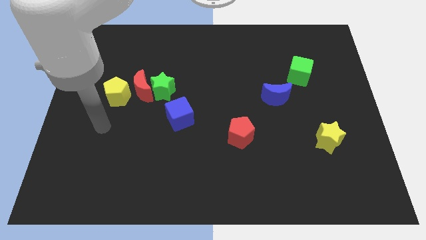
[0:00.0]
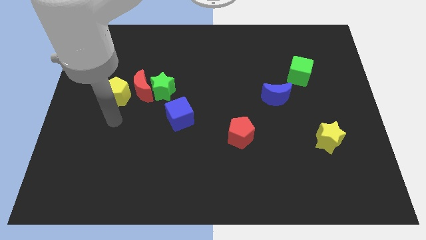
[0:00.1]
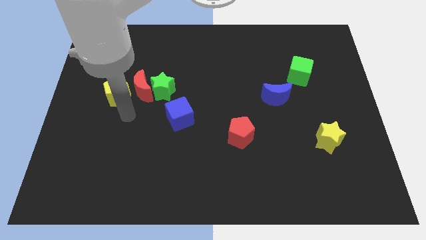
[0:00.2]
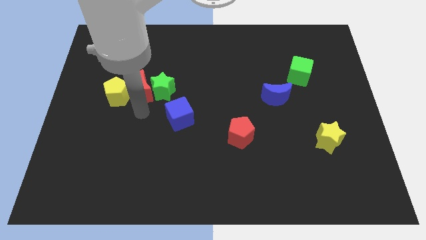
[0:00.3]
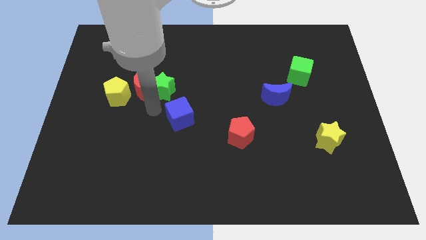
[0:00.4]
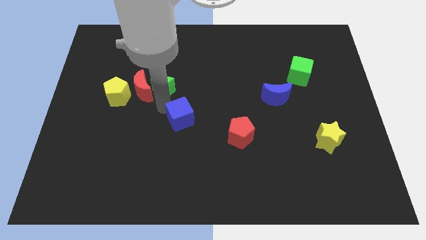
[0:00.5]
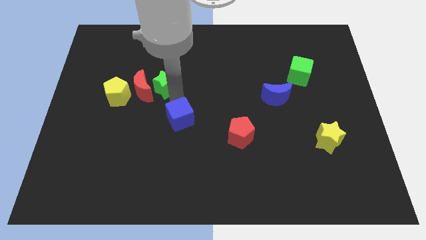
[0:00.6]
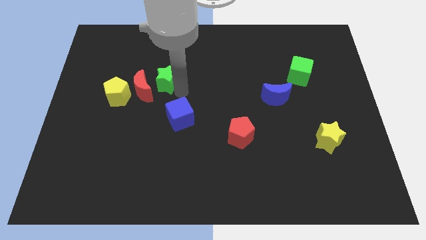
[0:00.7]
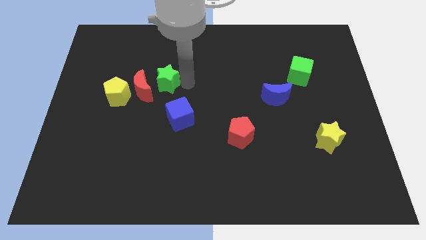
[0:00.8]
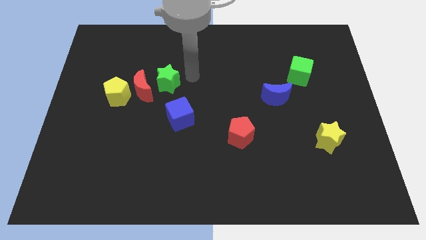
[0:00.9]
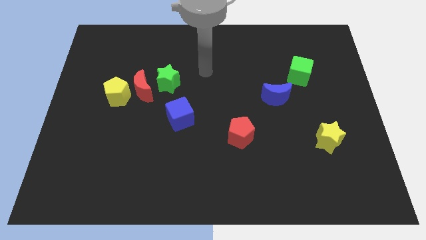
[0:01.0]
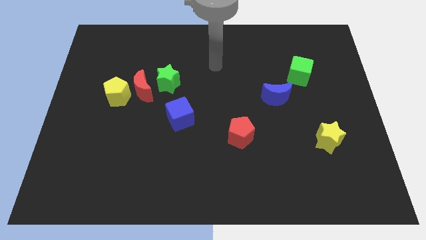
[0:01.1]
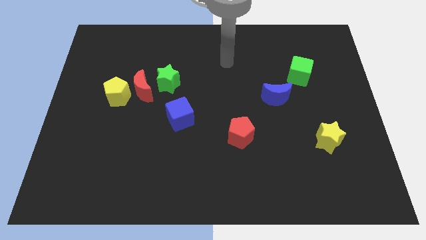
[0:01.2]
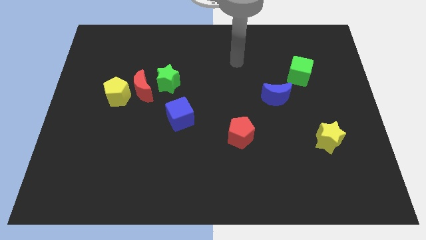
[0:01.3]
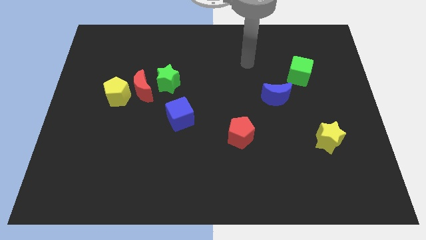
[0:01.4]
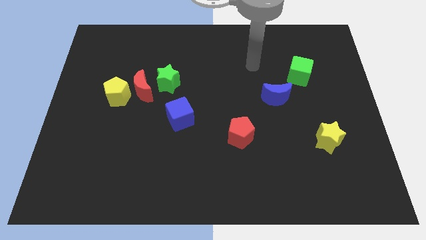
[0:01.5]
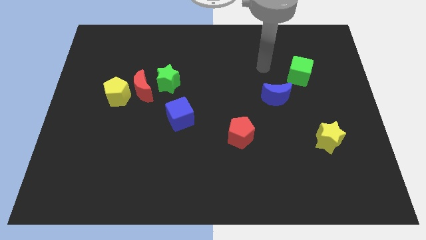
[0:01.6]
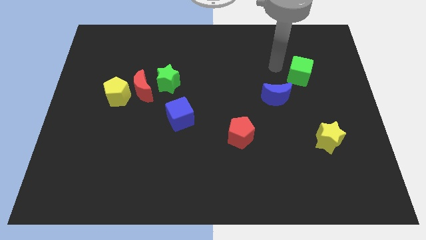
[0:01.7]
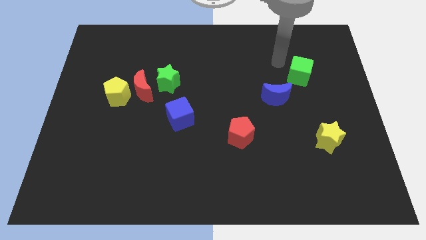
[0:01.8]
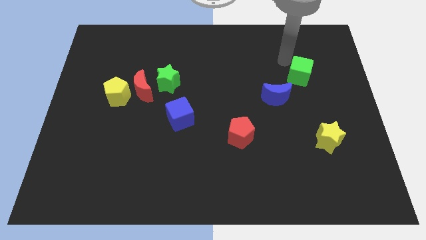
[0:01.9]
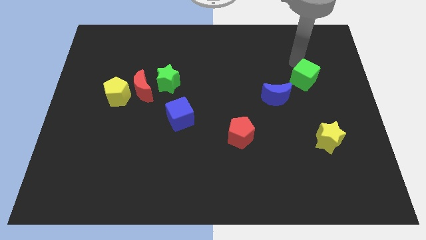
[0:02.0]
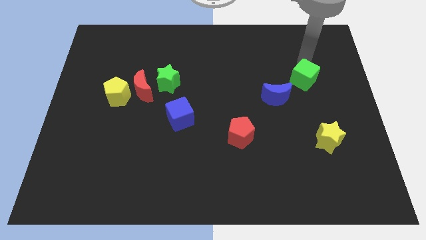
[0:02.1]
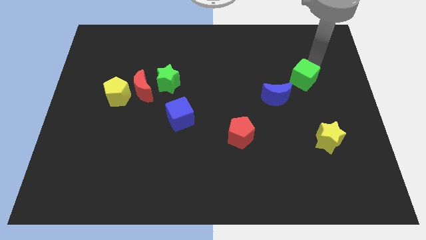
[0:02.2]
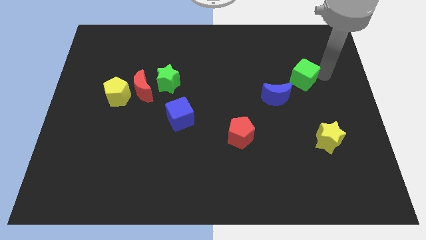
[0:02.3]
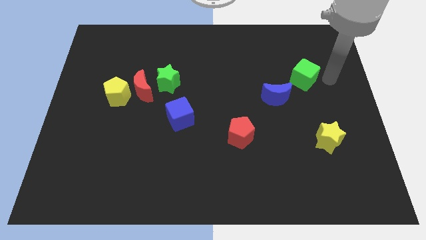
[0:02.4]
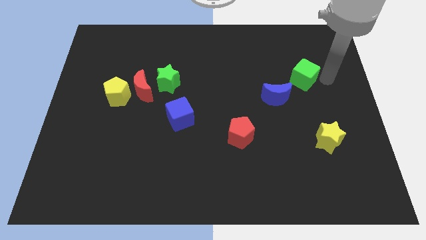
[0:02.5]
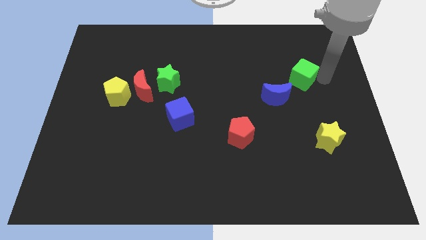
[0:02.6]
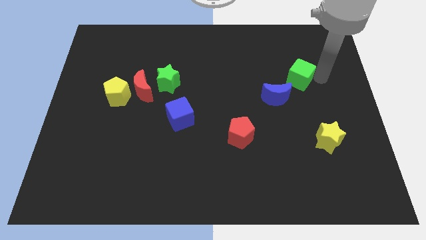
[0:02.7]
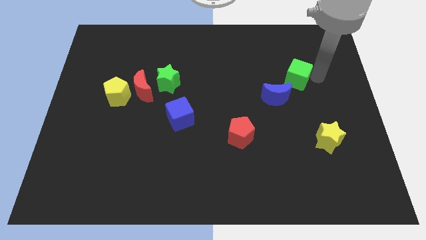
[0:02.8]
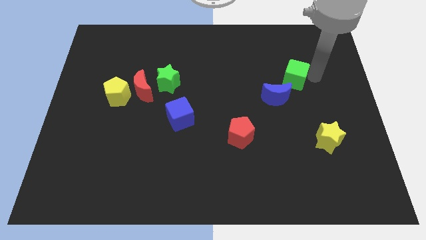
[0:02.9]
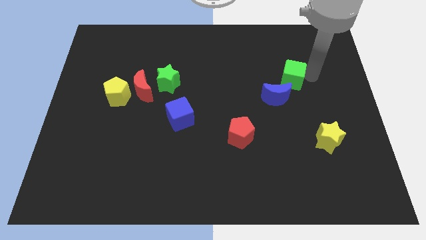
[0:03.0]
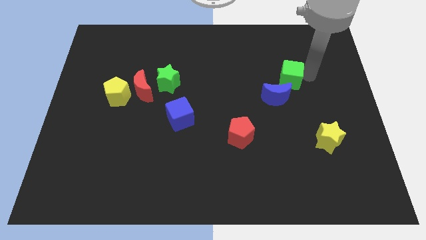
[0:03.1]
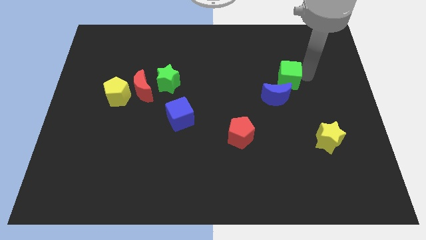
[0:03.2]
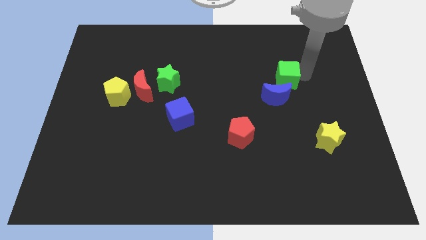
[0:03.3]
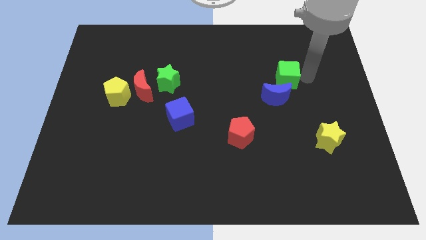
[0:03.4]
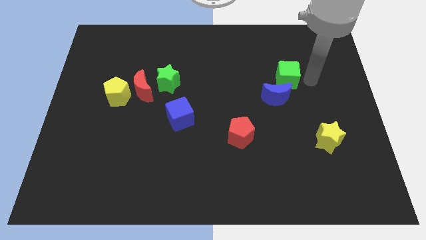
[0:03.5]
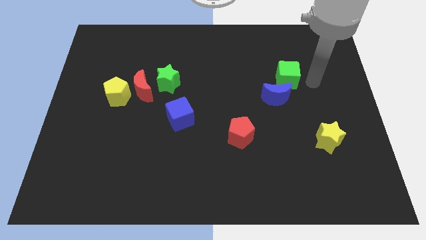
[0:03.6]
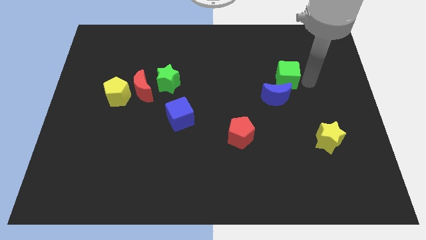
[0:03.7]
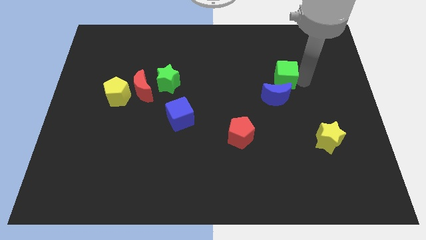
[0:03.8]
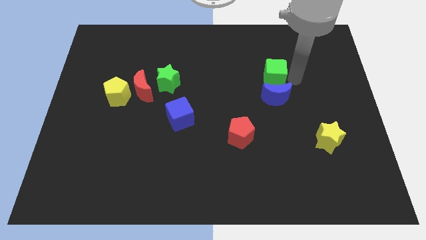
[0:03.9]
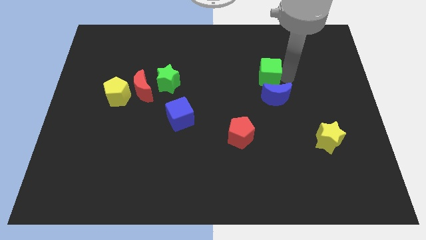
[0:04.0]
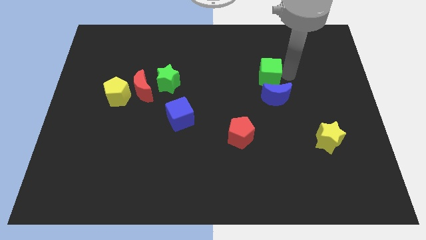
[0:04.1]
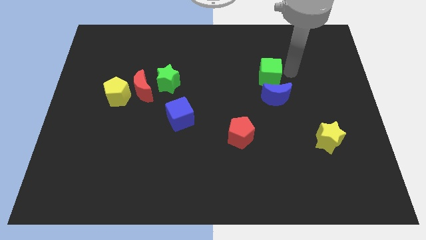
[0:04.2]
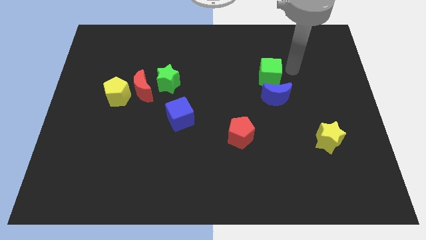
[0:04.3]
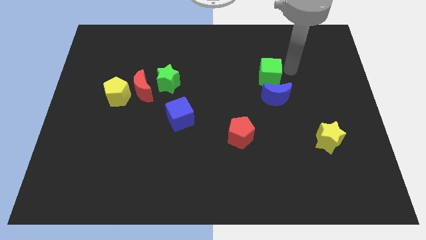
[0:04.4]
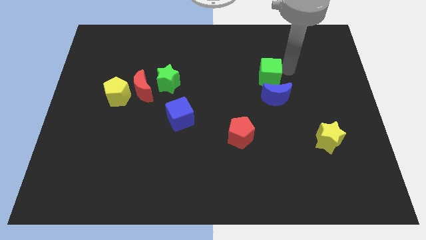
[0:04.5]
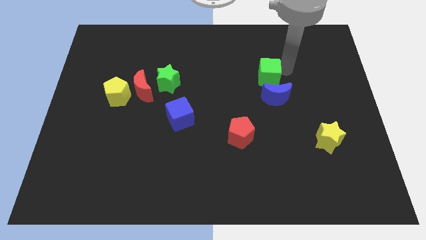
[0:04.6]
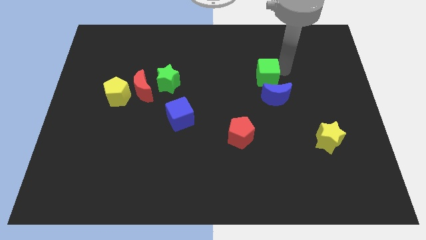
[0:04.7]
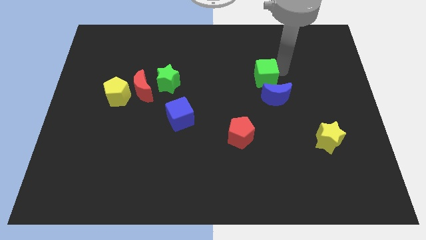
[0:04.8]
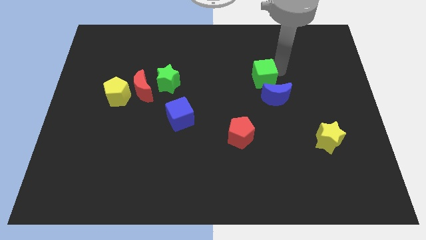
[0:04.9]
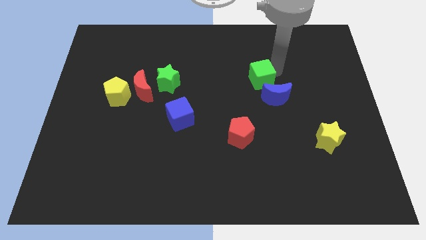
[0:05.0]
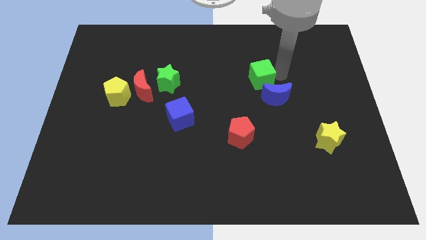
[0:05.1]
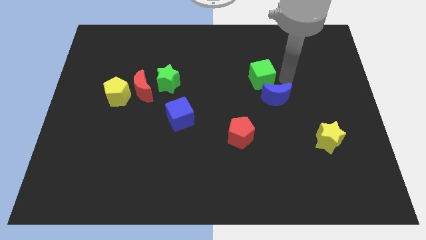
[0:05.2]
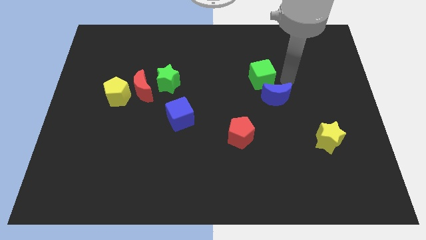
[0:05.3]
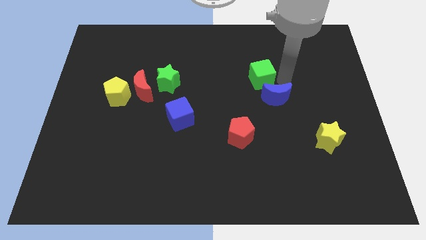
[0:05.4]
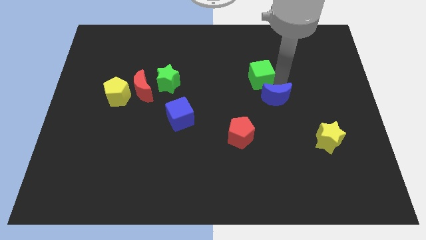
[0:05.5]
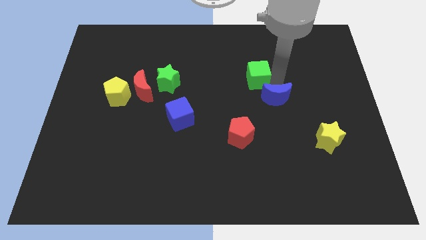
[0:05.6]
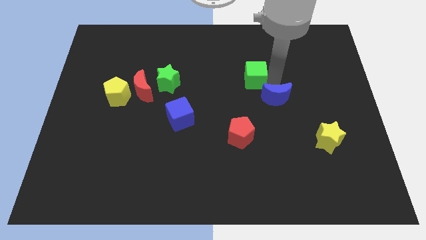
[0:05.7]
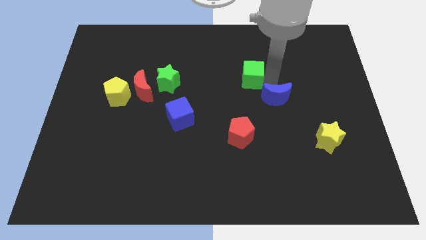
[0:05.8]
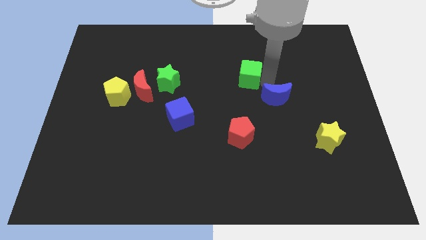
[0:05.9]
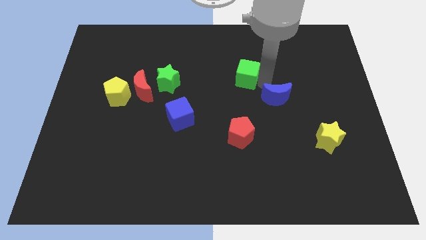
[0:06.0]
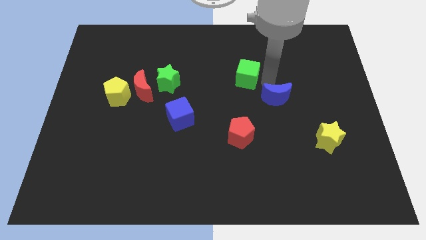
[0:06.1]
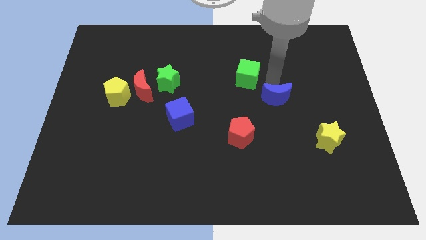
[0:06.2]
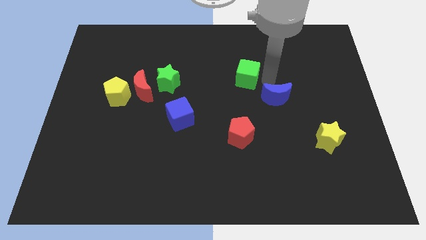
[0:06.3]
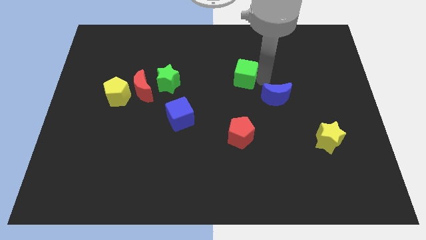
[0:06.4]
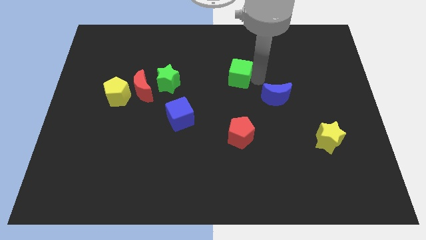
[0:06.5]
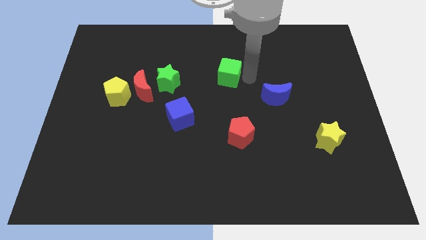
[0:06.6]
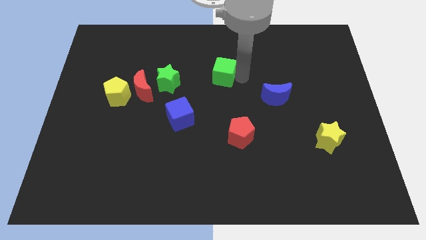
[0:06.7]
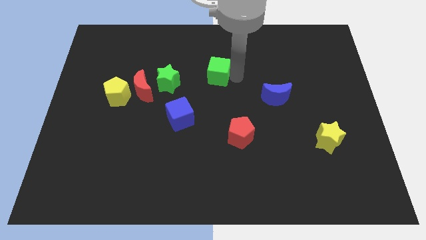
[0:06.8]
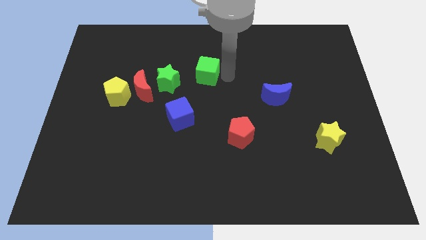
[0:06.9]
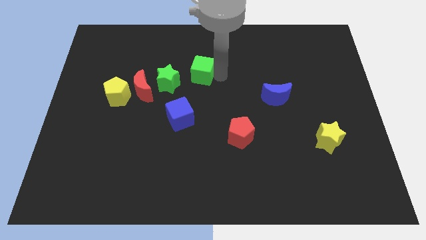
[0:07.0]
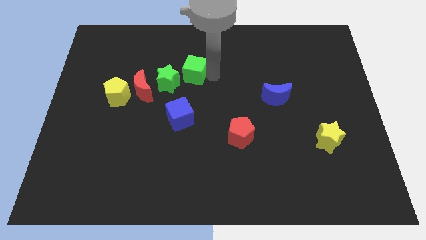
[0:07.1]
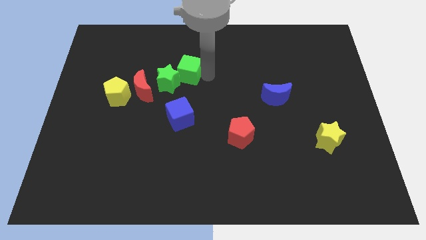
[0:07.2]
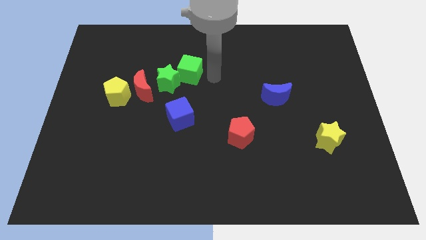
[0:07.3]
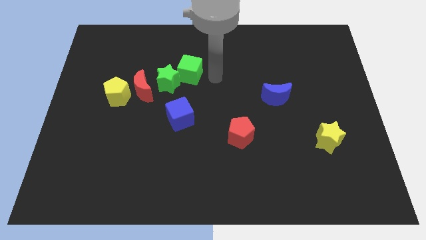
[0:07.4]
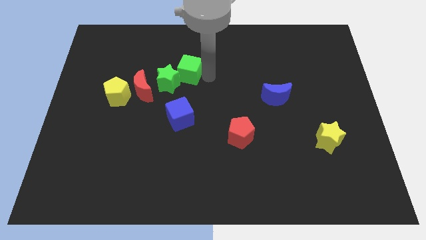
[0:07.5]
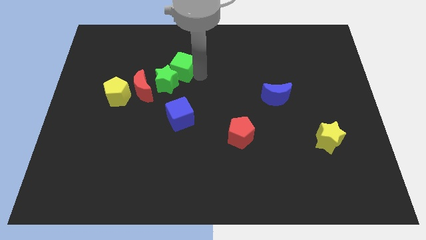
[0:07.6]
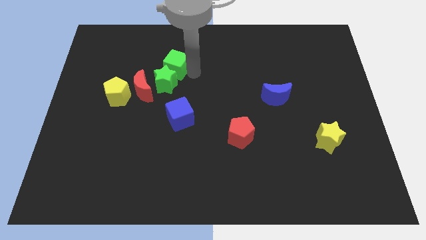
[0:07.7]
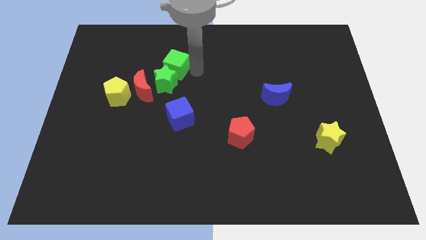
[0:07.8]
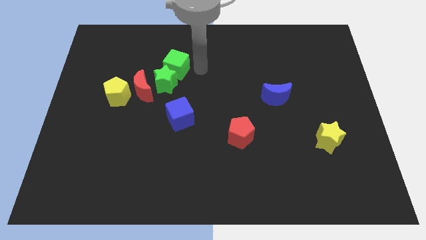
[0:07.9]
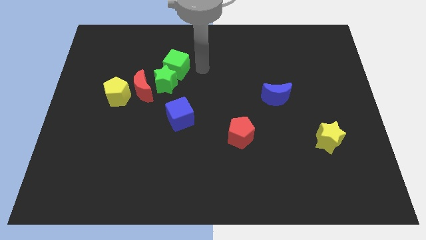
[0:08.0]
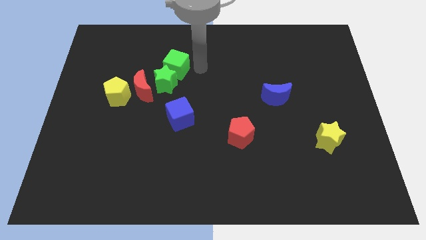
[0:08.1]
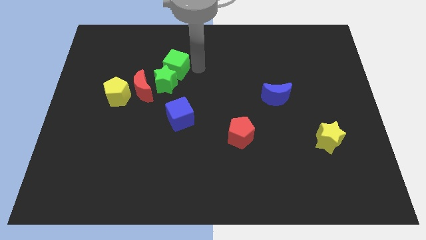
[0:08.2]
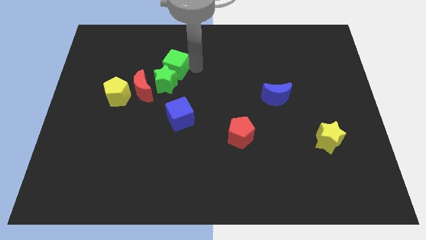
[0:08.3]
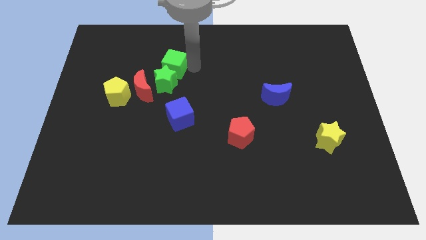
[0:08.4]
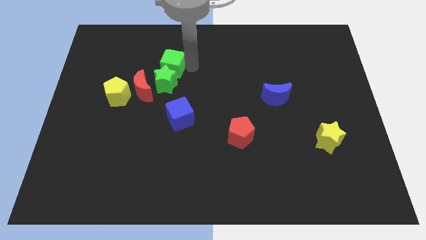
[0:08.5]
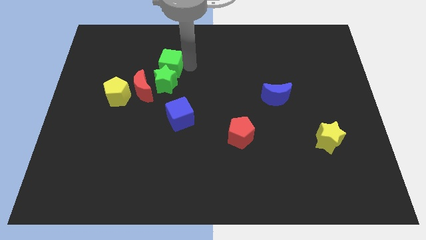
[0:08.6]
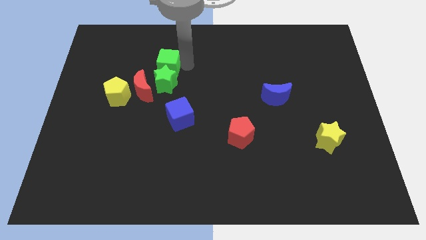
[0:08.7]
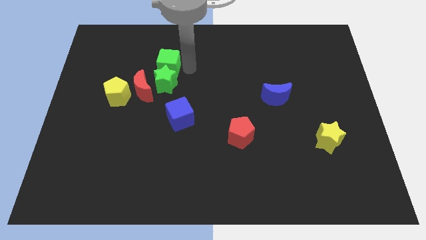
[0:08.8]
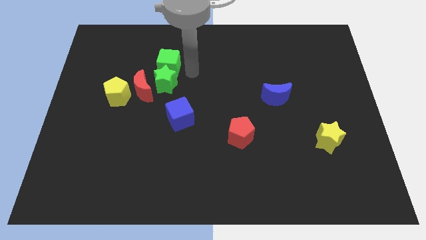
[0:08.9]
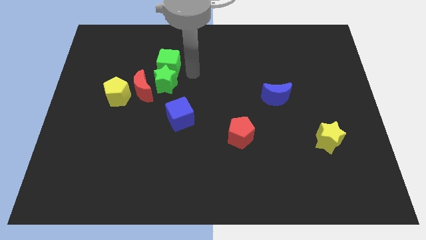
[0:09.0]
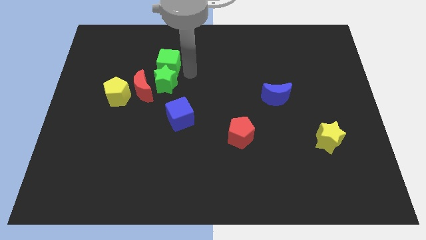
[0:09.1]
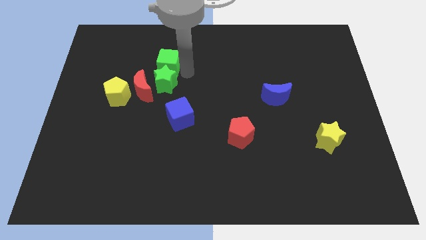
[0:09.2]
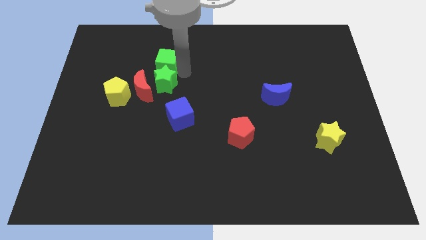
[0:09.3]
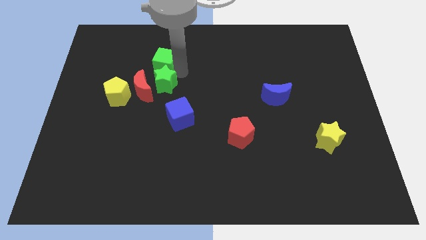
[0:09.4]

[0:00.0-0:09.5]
slide the green cube to the top side of the red moon
